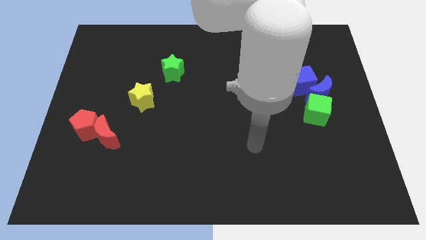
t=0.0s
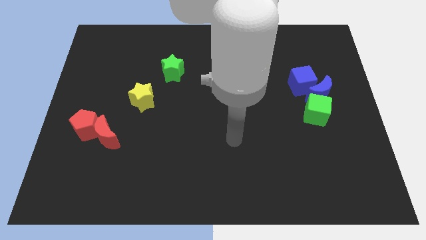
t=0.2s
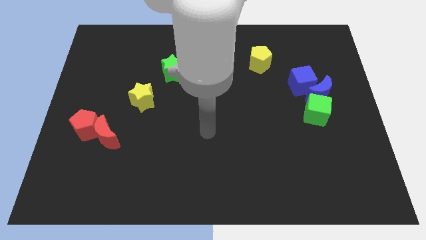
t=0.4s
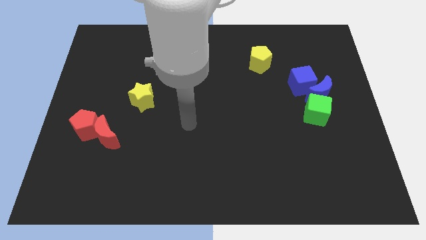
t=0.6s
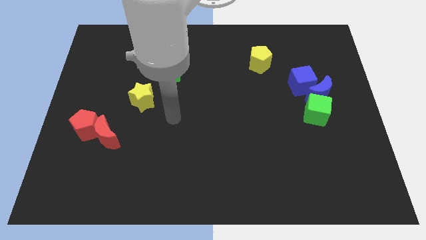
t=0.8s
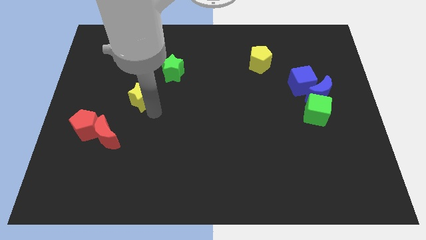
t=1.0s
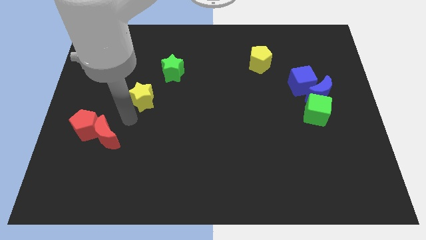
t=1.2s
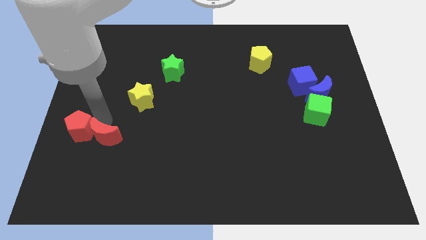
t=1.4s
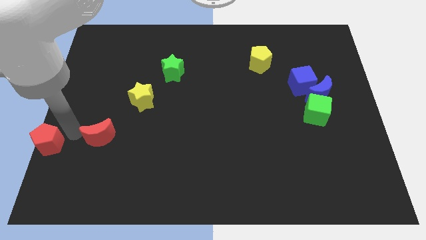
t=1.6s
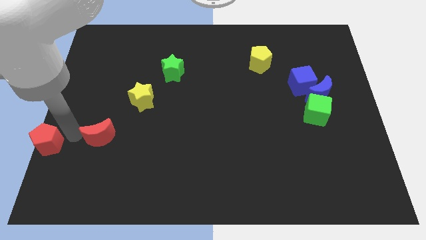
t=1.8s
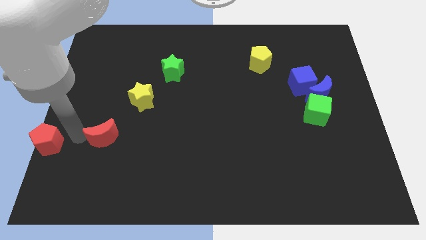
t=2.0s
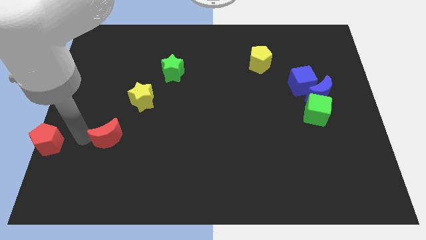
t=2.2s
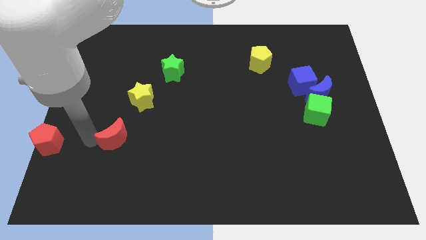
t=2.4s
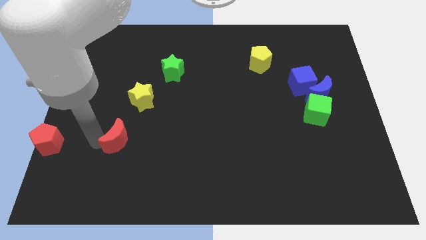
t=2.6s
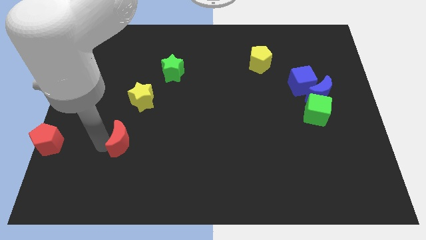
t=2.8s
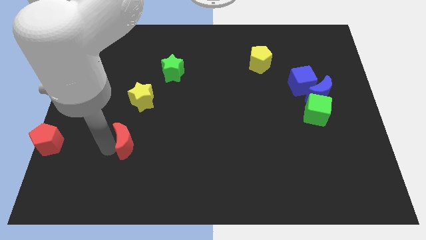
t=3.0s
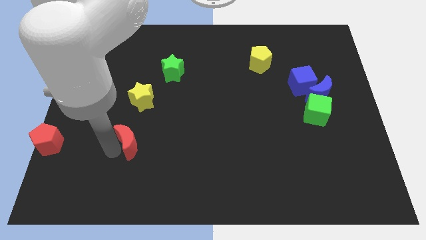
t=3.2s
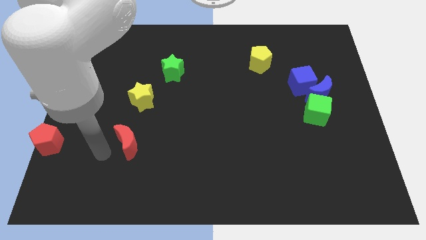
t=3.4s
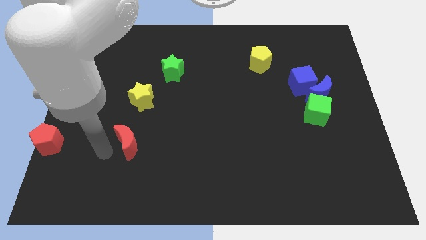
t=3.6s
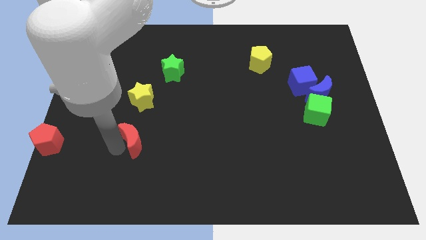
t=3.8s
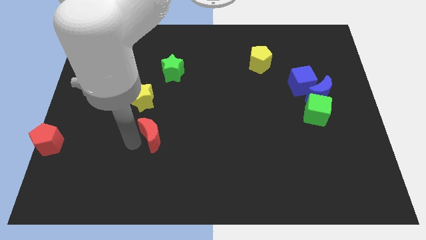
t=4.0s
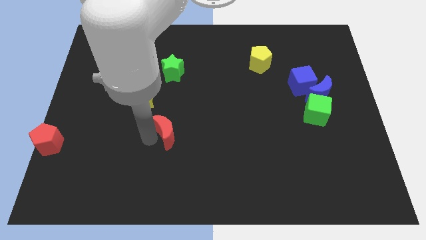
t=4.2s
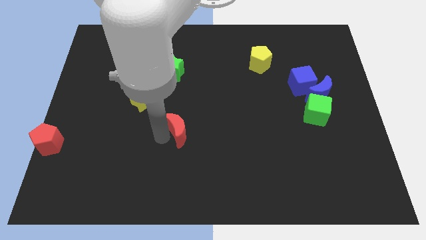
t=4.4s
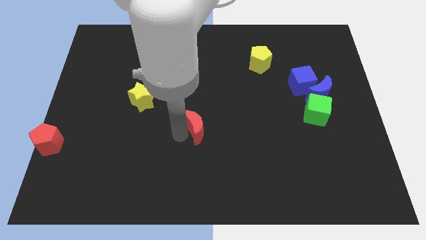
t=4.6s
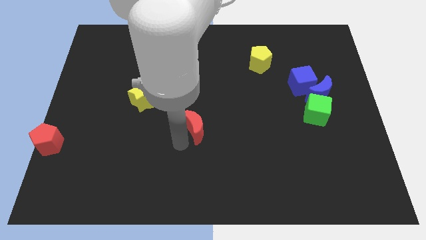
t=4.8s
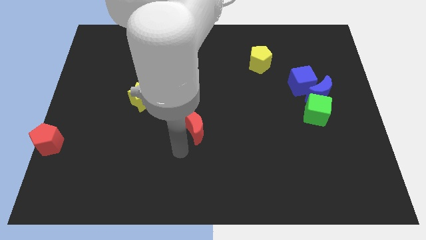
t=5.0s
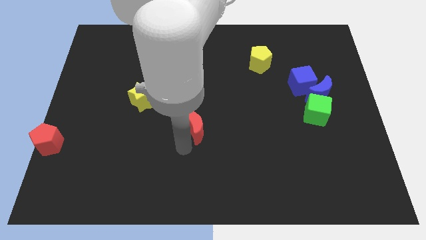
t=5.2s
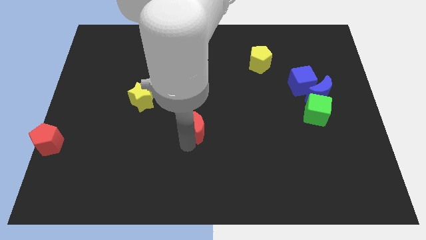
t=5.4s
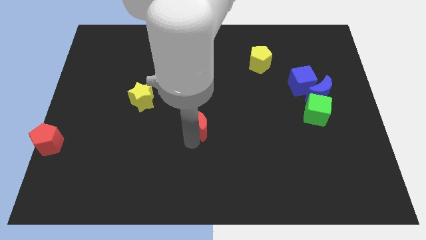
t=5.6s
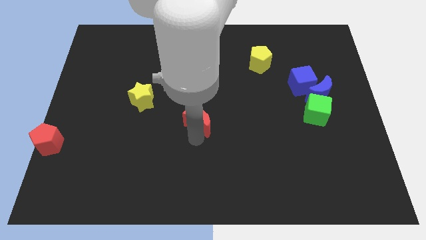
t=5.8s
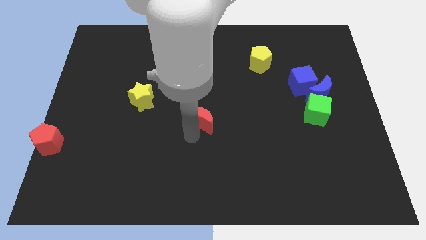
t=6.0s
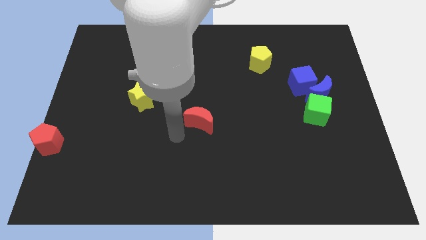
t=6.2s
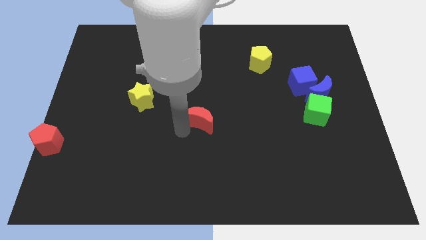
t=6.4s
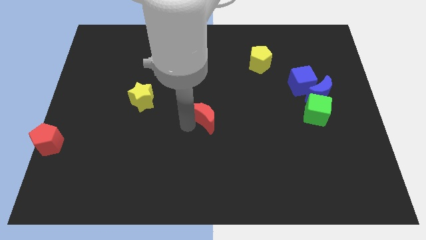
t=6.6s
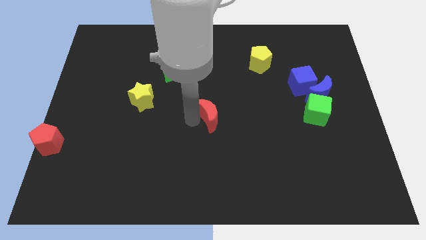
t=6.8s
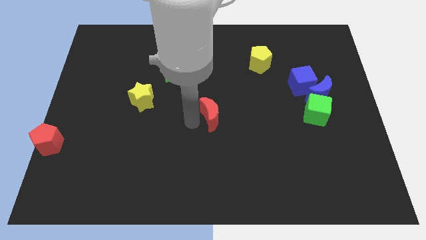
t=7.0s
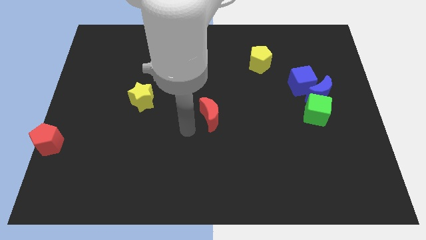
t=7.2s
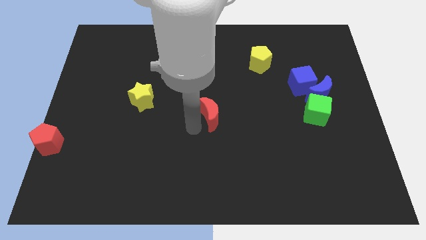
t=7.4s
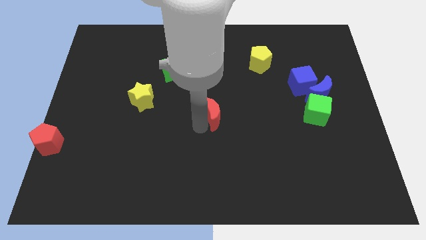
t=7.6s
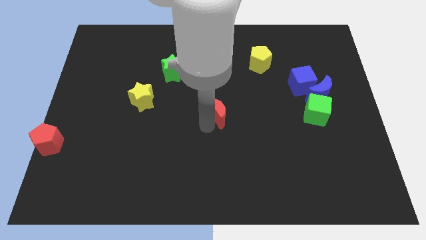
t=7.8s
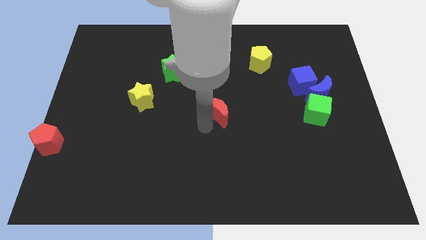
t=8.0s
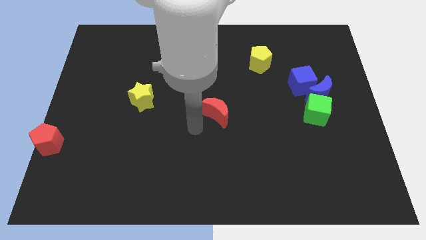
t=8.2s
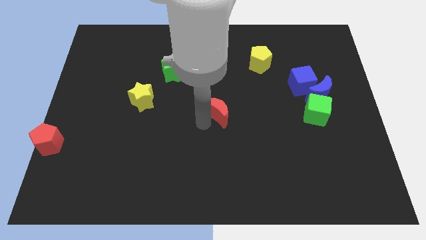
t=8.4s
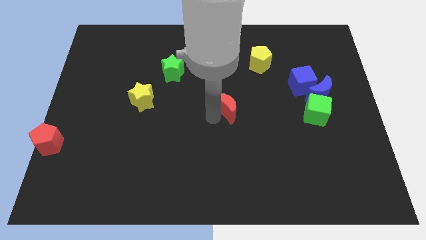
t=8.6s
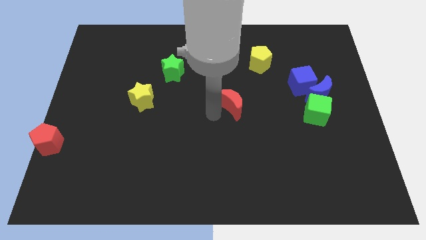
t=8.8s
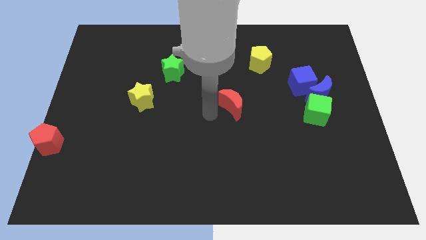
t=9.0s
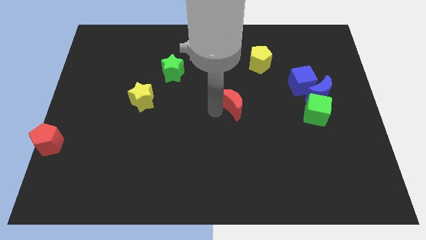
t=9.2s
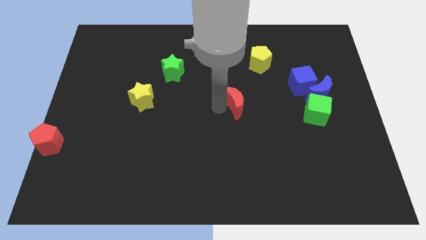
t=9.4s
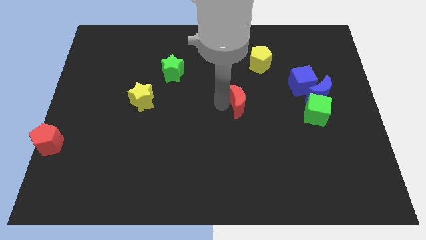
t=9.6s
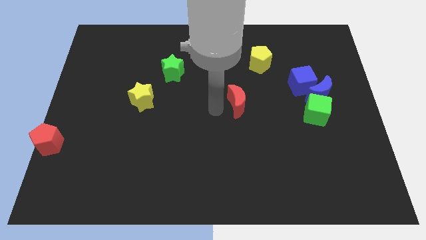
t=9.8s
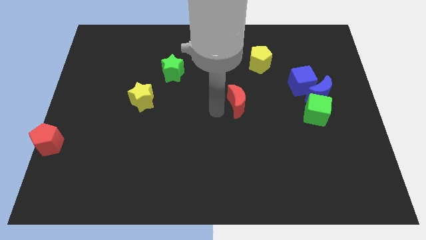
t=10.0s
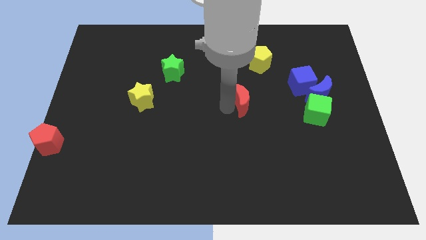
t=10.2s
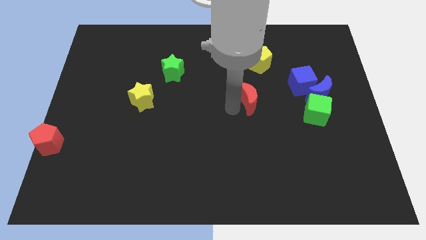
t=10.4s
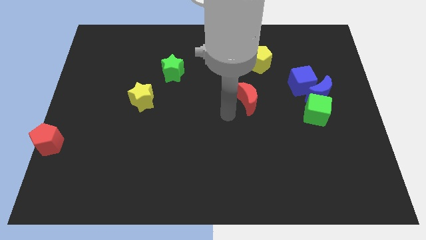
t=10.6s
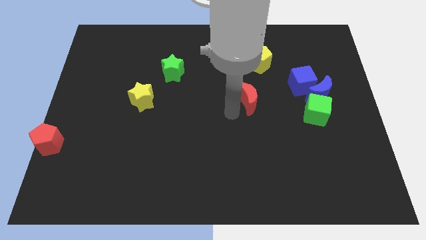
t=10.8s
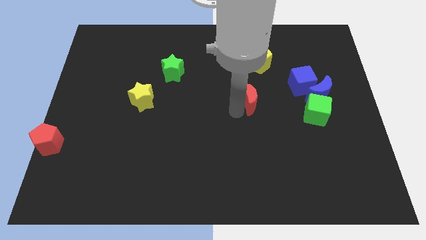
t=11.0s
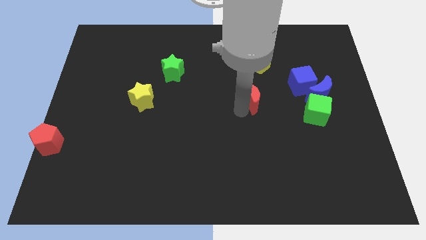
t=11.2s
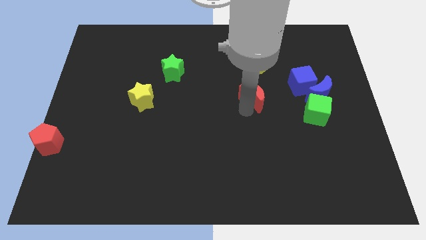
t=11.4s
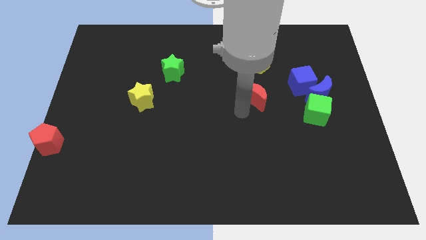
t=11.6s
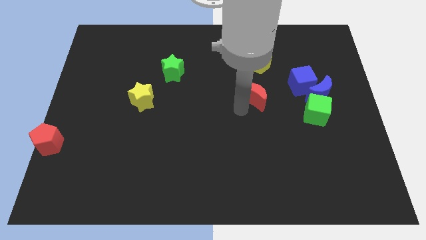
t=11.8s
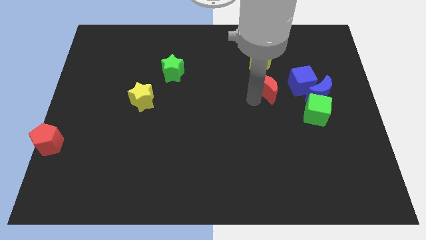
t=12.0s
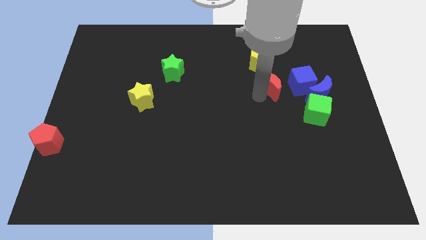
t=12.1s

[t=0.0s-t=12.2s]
slide the red moon diagonally down and to the right of the yellow pentagon

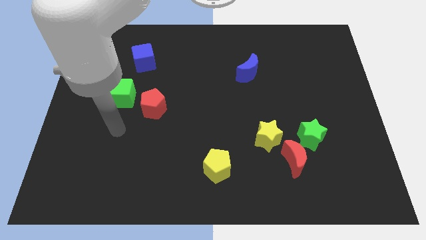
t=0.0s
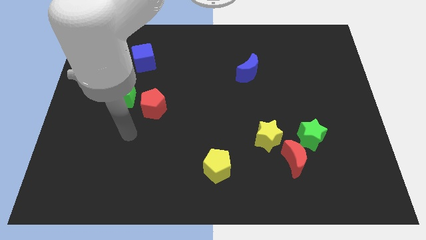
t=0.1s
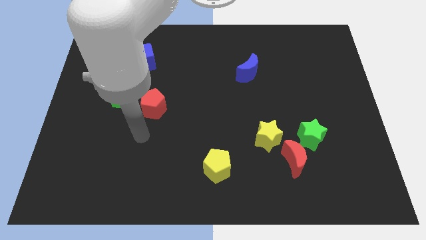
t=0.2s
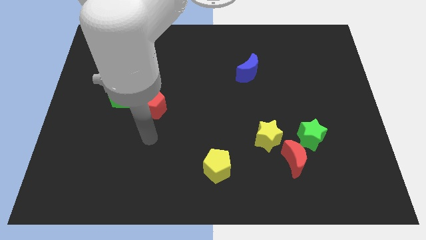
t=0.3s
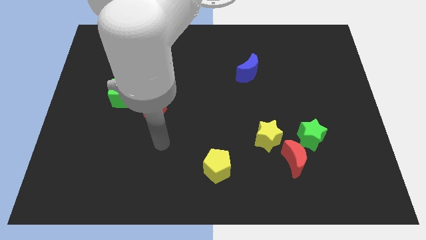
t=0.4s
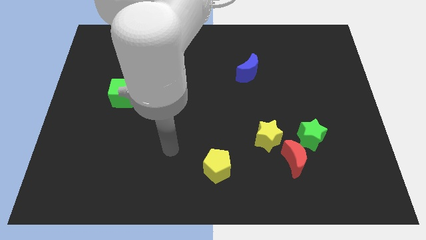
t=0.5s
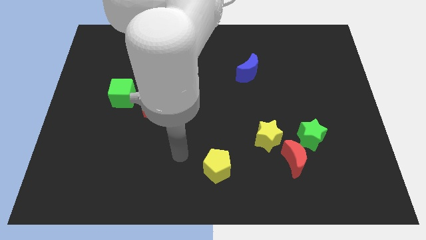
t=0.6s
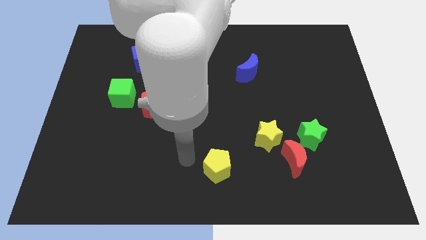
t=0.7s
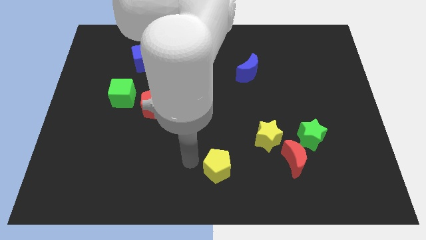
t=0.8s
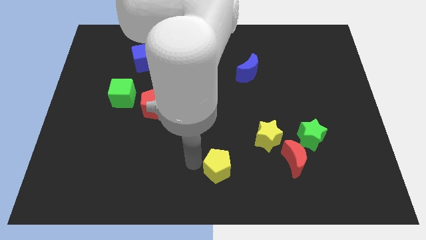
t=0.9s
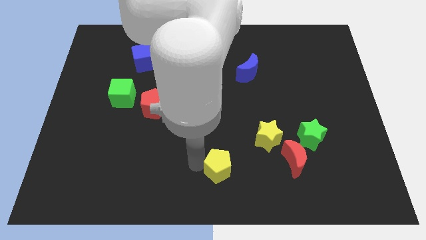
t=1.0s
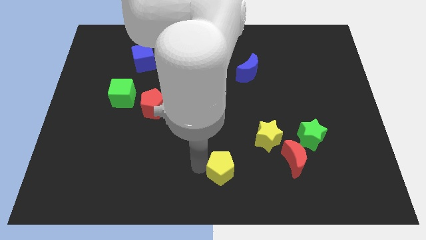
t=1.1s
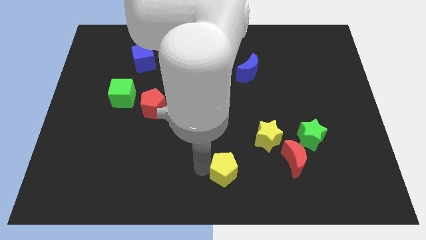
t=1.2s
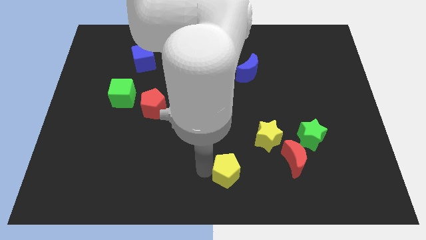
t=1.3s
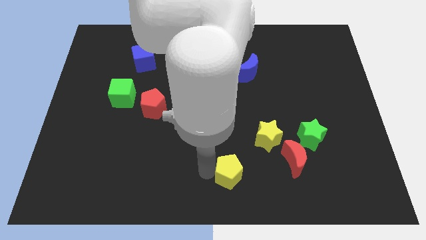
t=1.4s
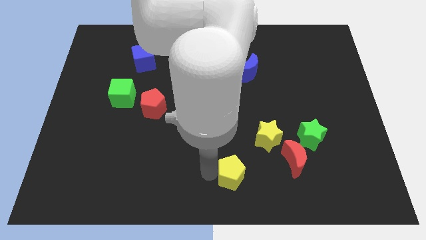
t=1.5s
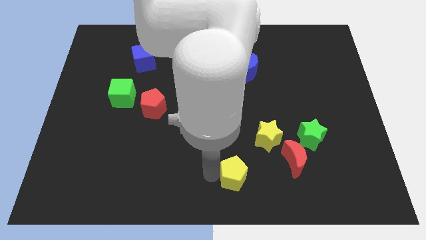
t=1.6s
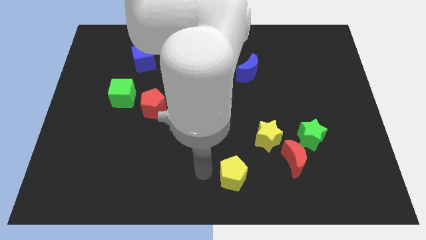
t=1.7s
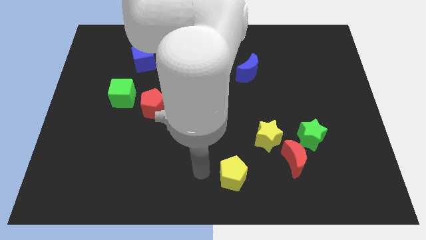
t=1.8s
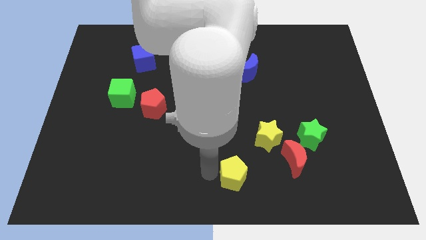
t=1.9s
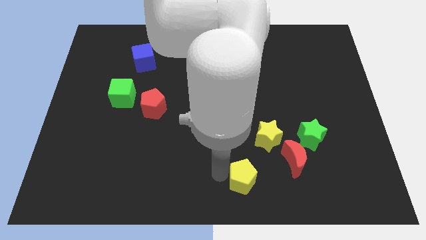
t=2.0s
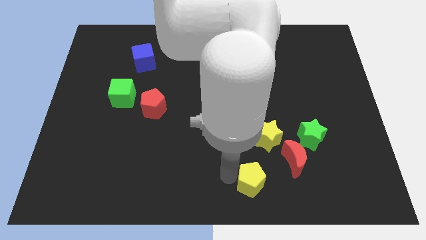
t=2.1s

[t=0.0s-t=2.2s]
slide the yellow pentagon below the yellow star

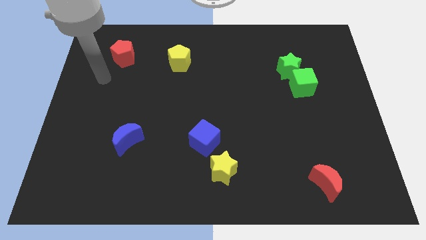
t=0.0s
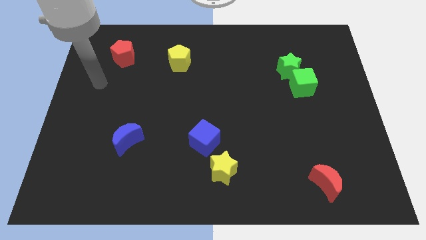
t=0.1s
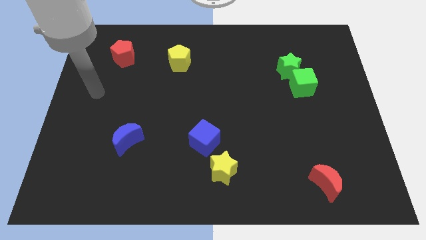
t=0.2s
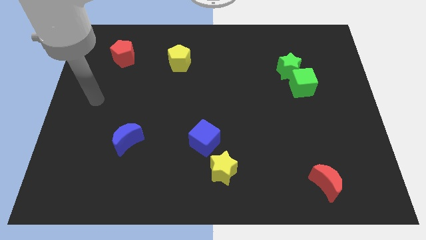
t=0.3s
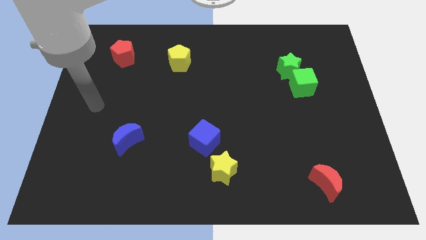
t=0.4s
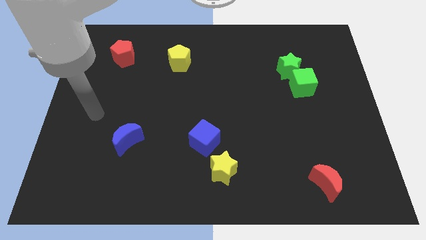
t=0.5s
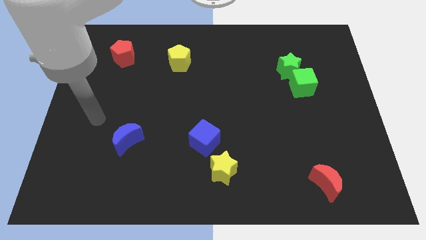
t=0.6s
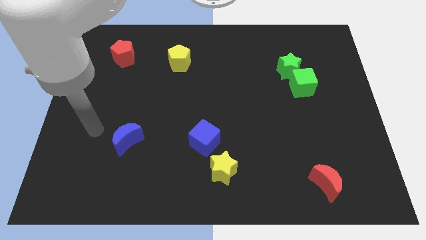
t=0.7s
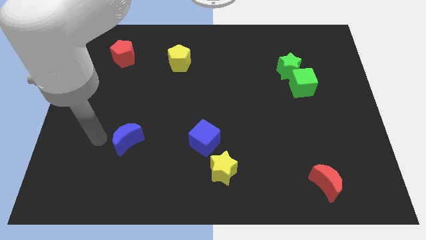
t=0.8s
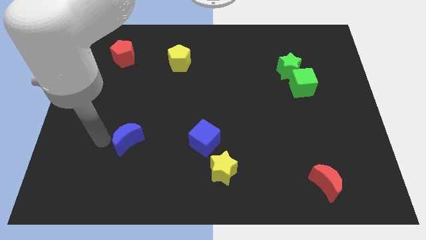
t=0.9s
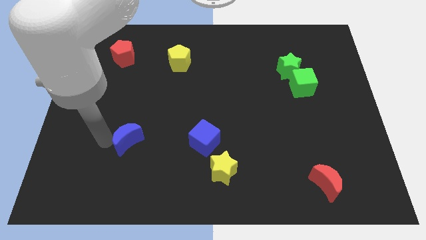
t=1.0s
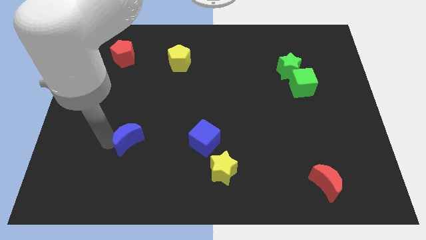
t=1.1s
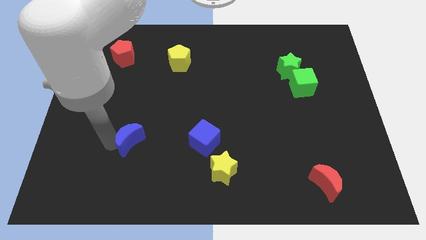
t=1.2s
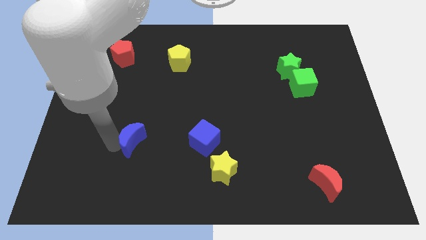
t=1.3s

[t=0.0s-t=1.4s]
push the blue moon to the left side of the blue cube
